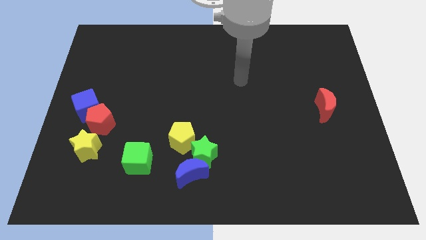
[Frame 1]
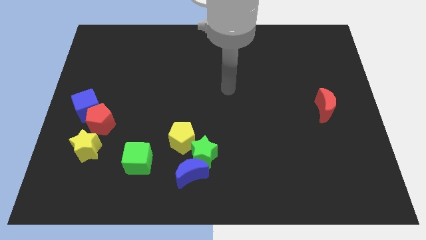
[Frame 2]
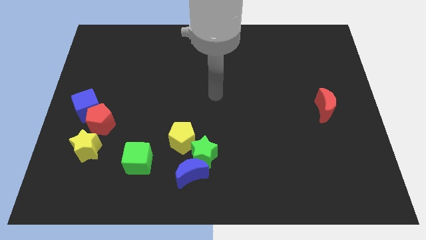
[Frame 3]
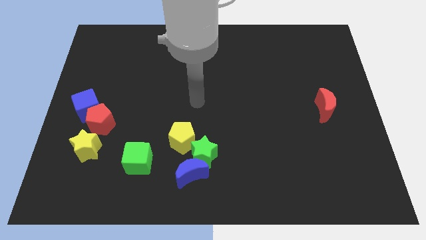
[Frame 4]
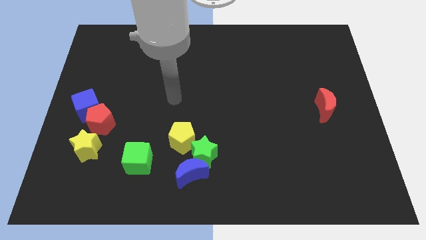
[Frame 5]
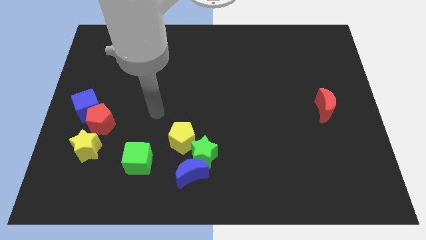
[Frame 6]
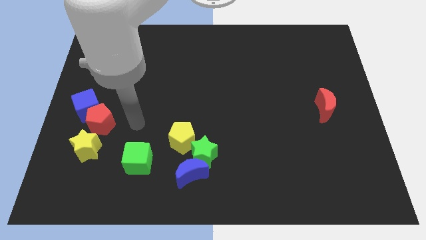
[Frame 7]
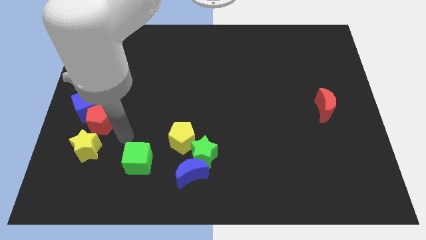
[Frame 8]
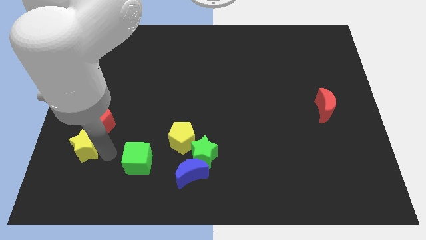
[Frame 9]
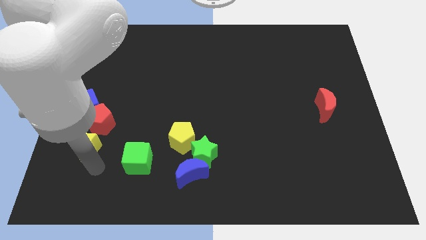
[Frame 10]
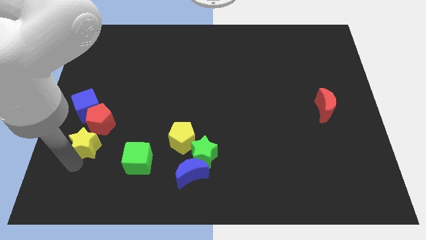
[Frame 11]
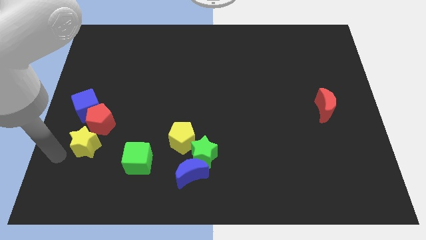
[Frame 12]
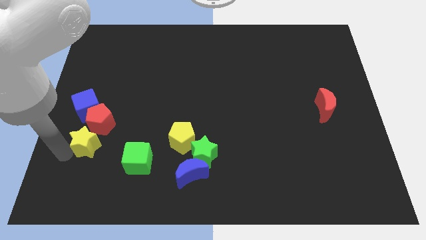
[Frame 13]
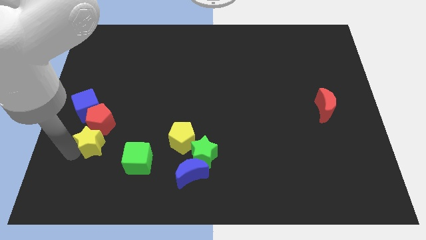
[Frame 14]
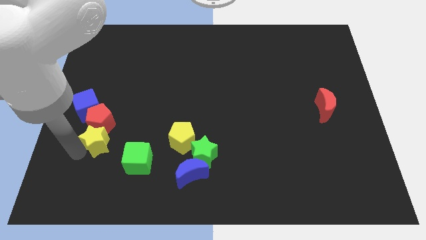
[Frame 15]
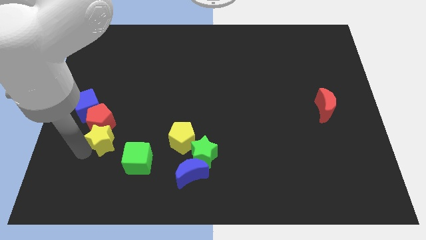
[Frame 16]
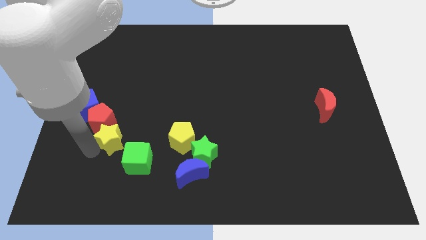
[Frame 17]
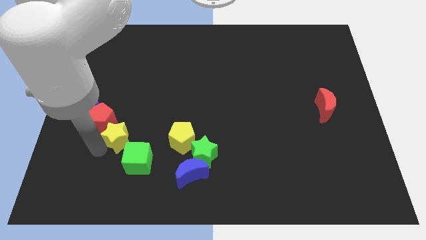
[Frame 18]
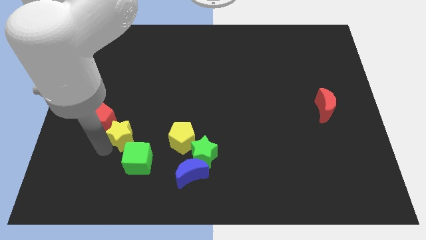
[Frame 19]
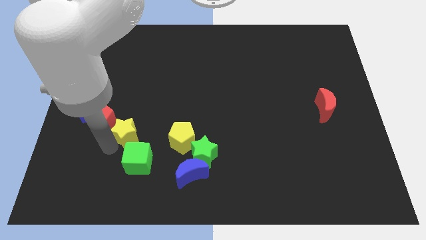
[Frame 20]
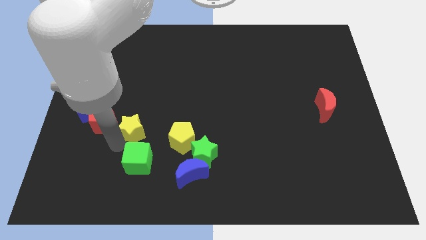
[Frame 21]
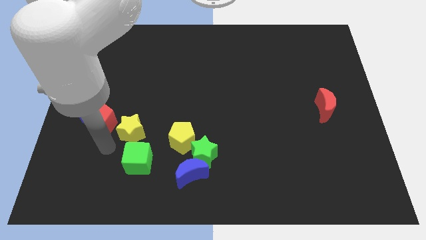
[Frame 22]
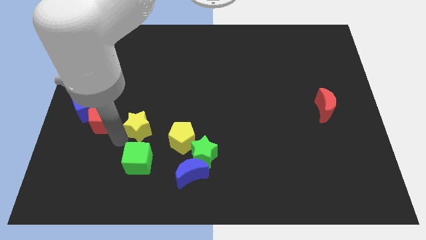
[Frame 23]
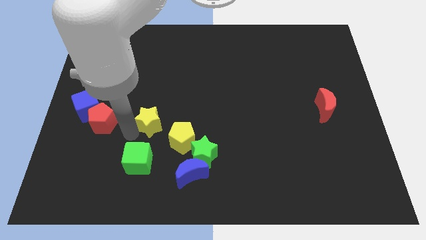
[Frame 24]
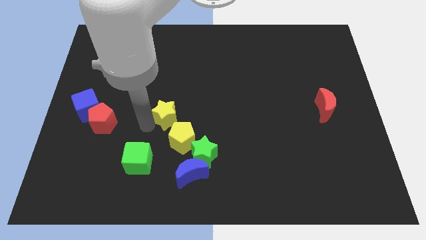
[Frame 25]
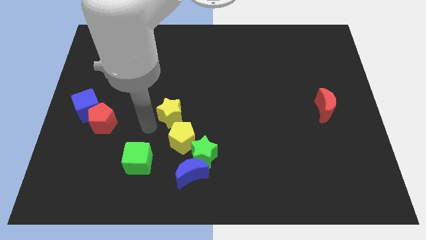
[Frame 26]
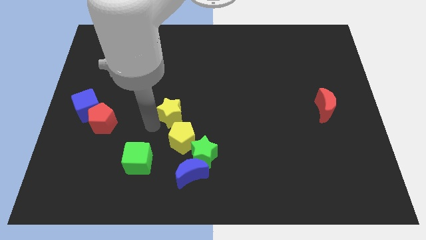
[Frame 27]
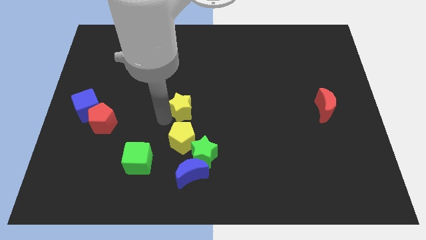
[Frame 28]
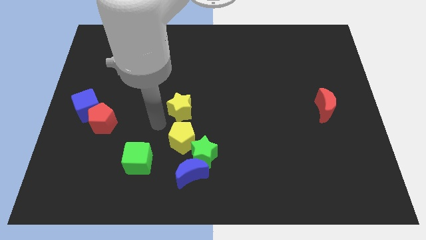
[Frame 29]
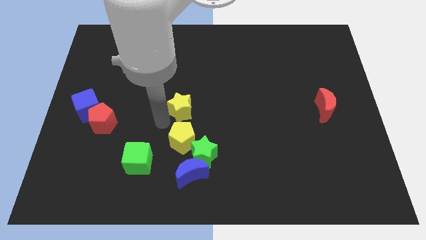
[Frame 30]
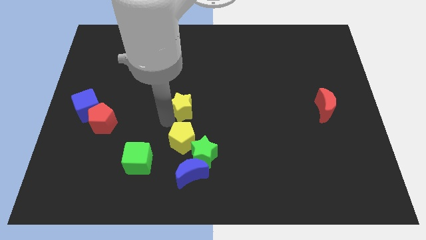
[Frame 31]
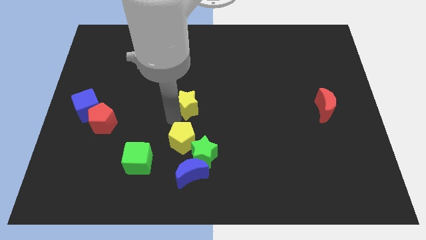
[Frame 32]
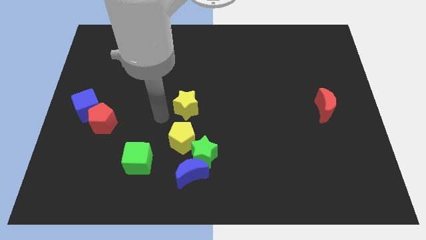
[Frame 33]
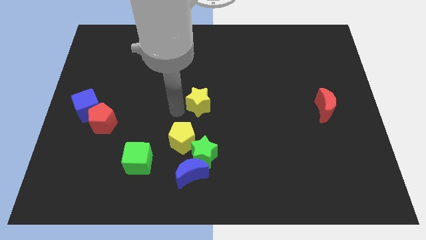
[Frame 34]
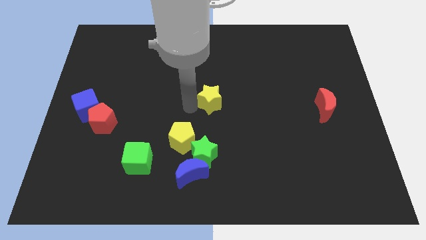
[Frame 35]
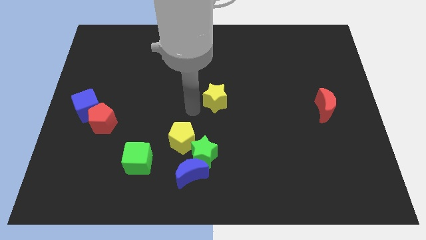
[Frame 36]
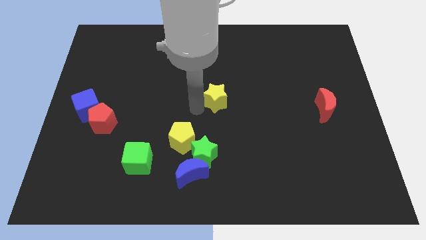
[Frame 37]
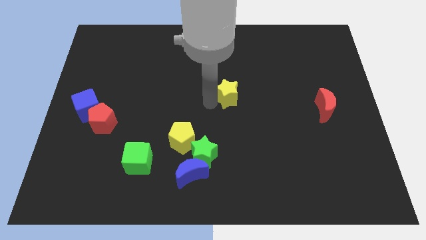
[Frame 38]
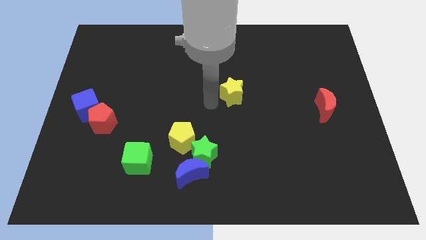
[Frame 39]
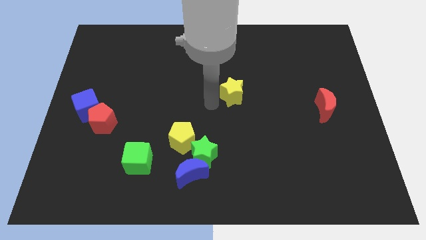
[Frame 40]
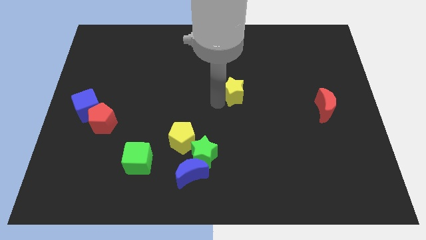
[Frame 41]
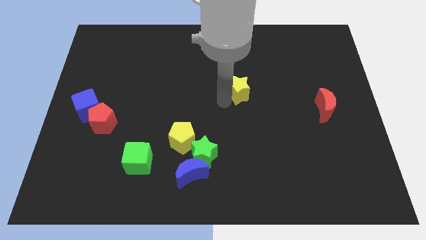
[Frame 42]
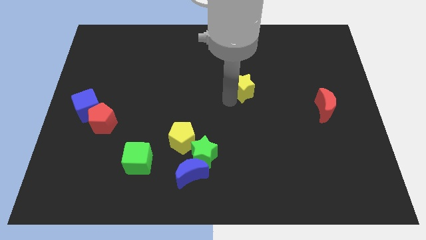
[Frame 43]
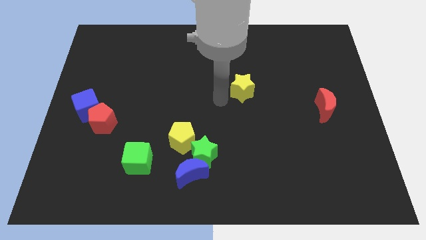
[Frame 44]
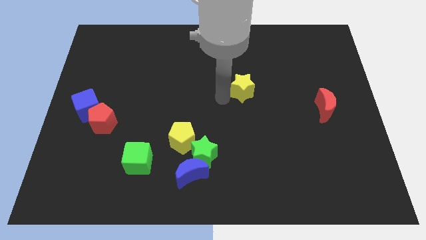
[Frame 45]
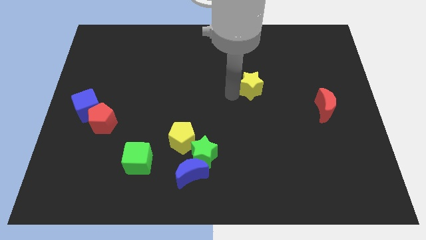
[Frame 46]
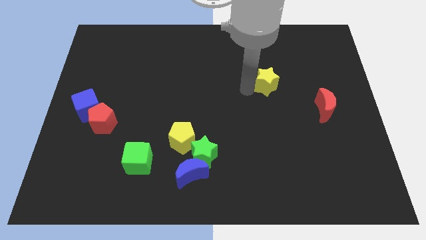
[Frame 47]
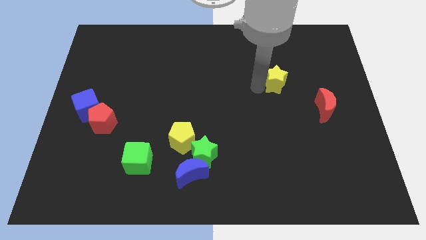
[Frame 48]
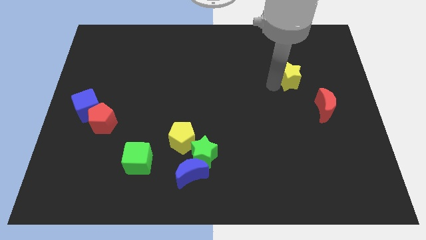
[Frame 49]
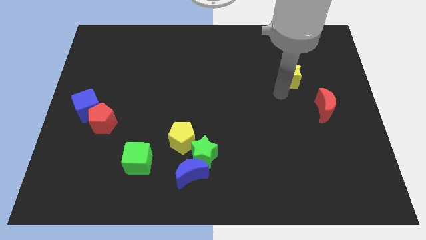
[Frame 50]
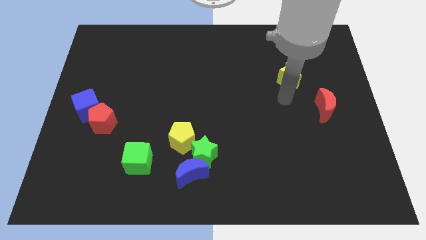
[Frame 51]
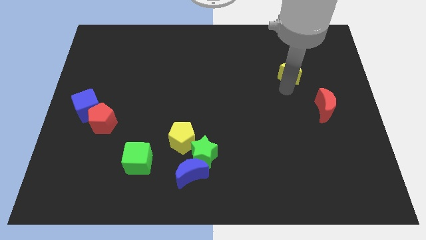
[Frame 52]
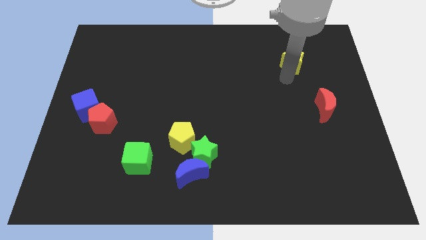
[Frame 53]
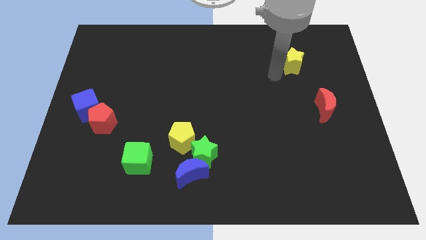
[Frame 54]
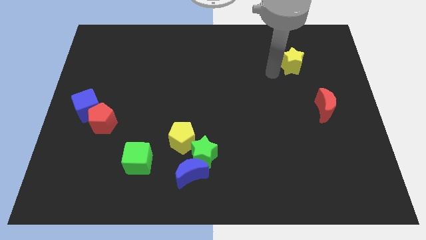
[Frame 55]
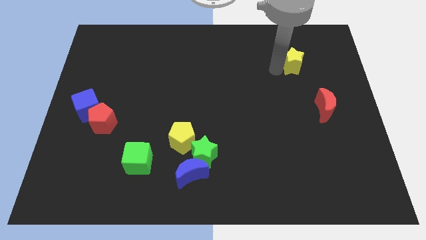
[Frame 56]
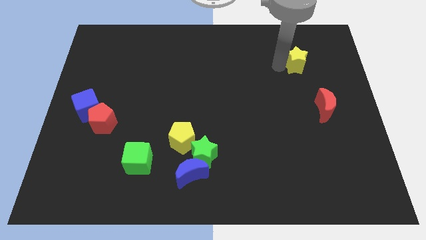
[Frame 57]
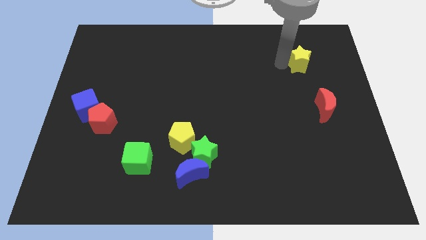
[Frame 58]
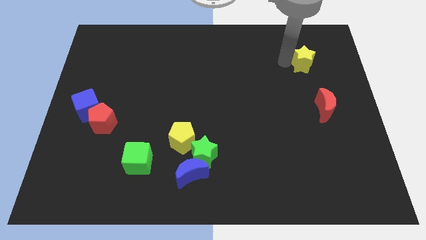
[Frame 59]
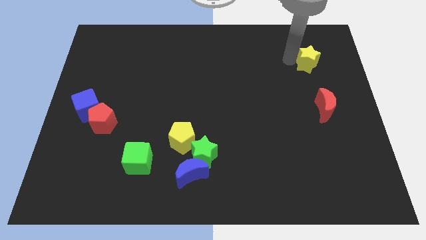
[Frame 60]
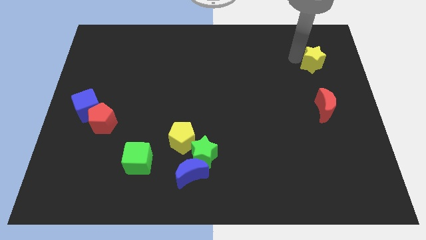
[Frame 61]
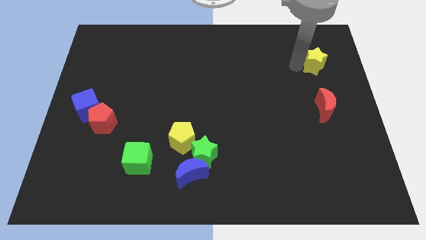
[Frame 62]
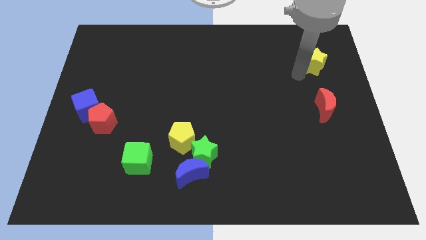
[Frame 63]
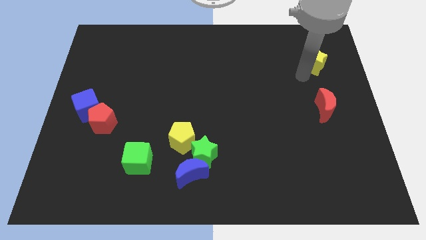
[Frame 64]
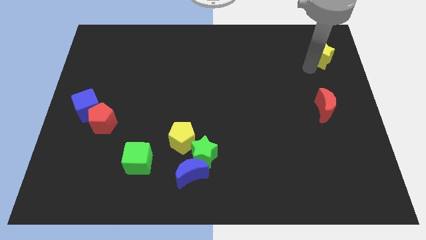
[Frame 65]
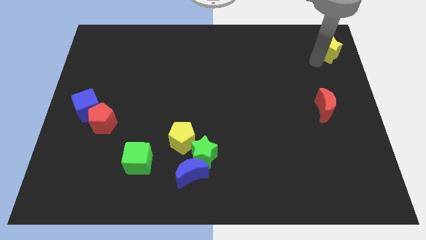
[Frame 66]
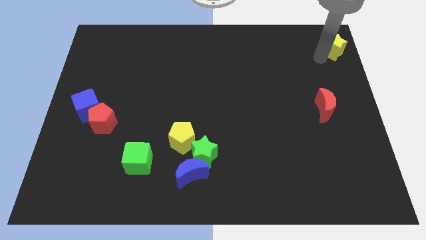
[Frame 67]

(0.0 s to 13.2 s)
slide the yellow star to the upper right corner
